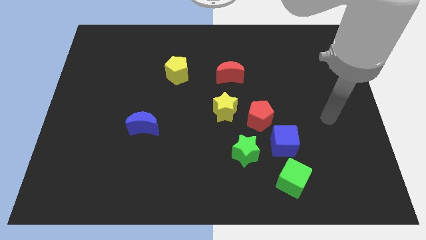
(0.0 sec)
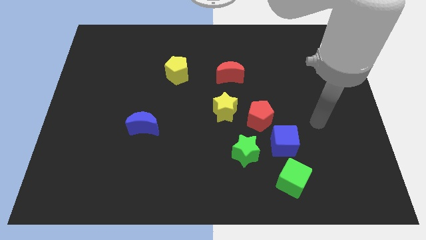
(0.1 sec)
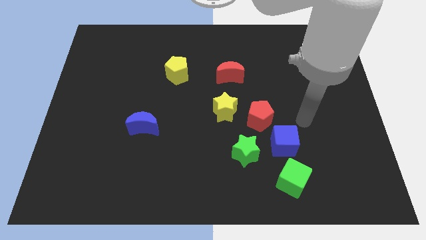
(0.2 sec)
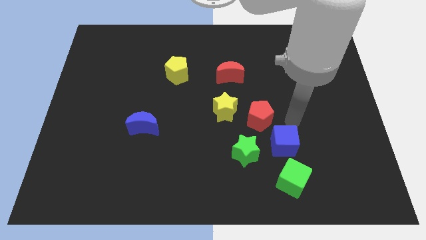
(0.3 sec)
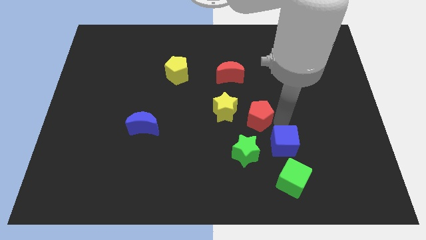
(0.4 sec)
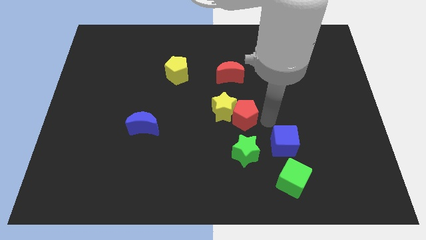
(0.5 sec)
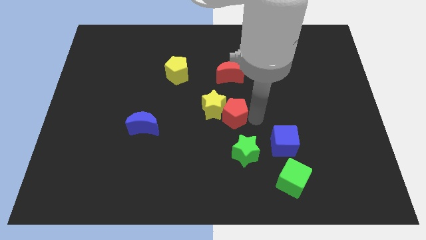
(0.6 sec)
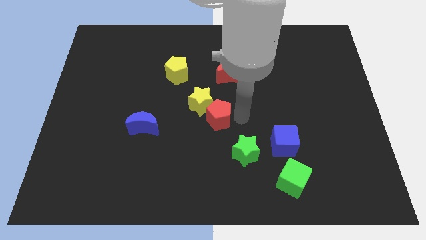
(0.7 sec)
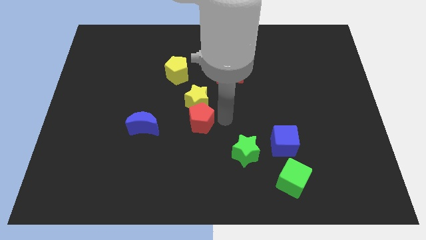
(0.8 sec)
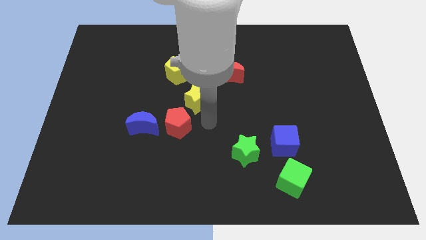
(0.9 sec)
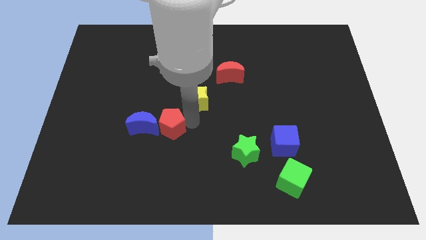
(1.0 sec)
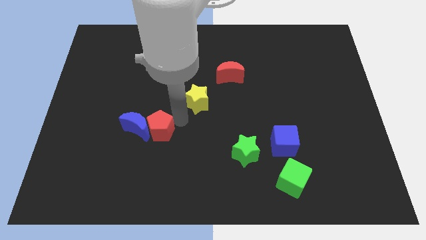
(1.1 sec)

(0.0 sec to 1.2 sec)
separate the yellow star from the red pentagon

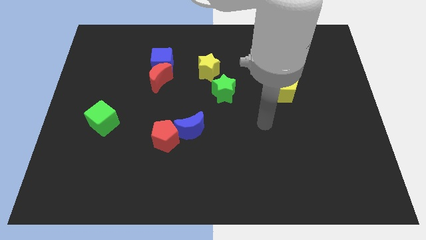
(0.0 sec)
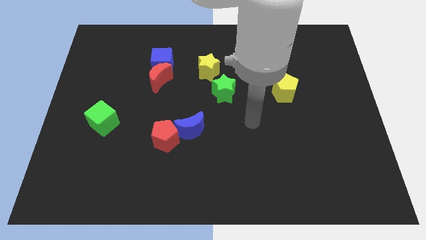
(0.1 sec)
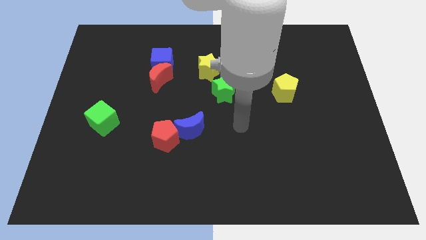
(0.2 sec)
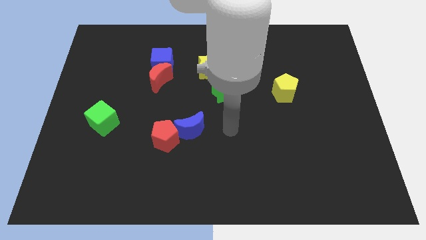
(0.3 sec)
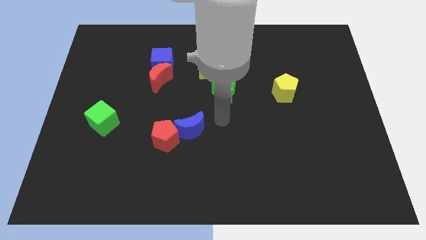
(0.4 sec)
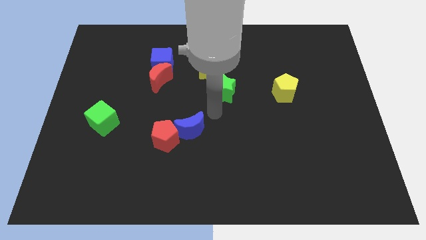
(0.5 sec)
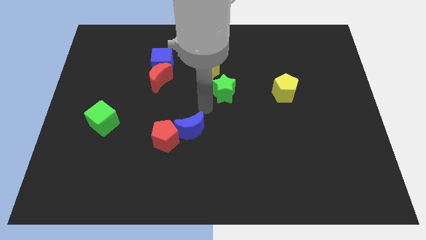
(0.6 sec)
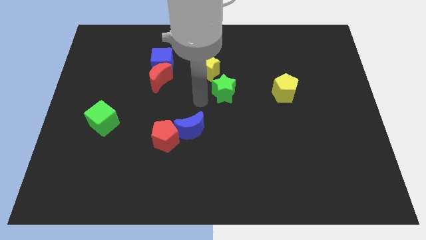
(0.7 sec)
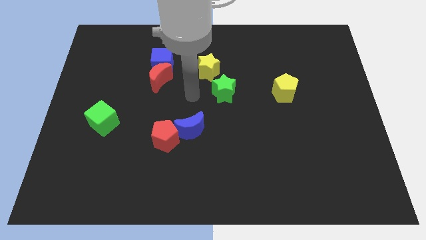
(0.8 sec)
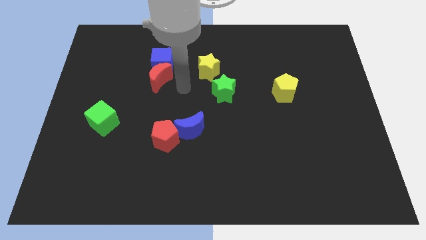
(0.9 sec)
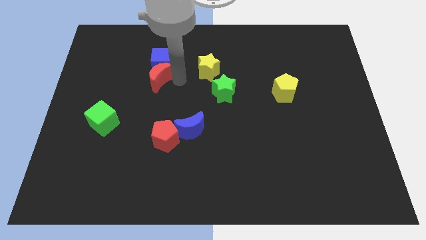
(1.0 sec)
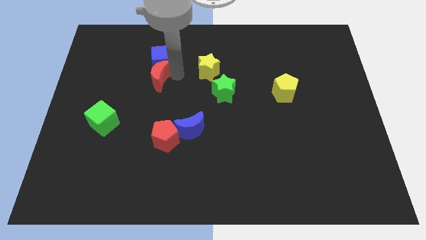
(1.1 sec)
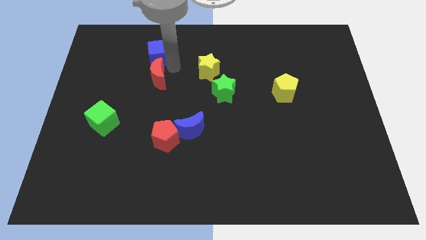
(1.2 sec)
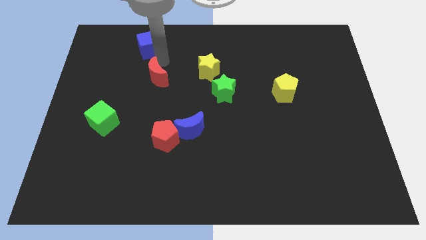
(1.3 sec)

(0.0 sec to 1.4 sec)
separate the red moon from the blue cube

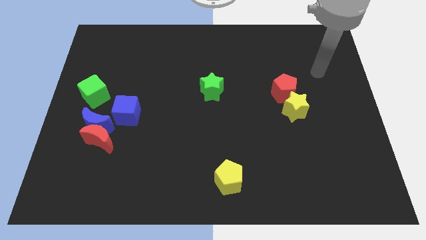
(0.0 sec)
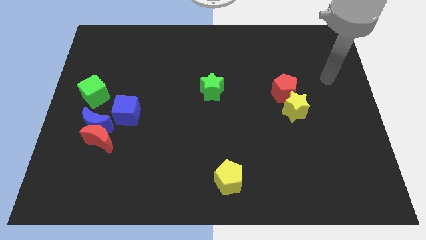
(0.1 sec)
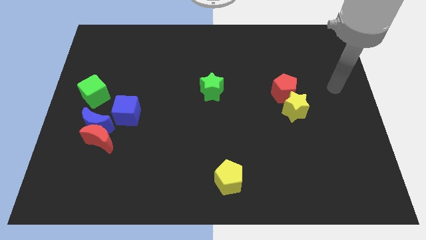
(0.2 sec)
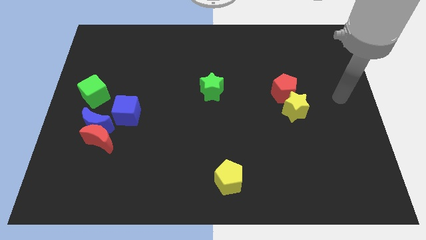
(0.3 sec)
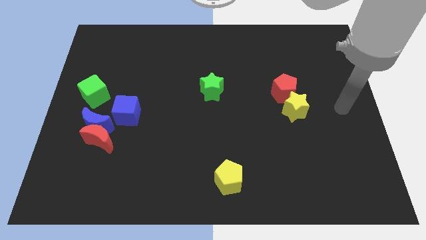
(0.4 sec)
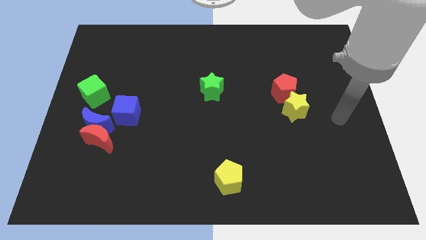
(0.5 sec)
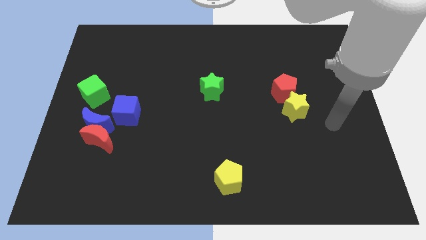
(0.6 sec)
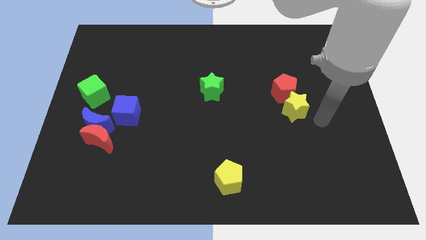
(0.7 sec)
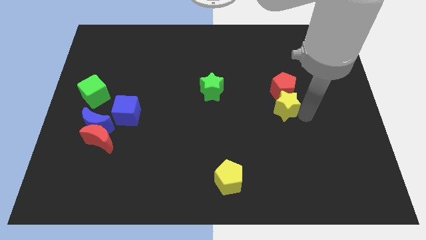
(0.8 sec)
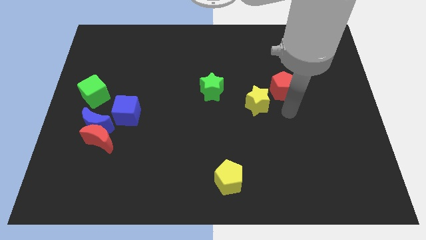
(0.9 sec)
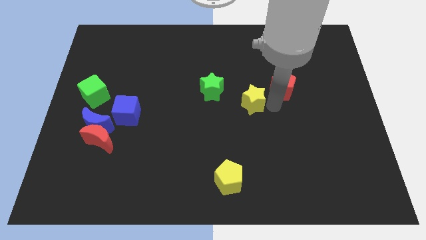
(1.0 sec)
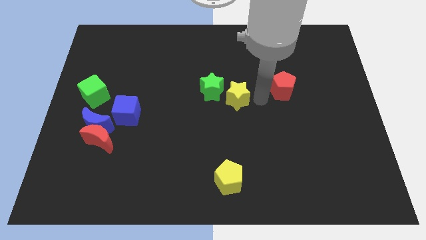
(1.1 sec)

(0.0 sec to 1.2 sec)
move the red pentagon away from the yellow star

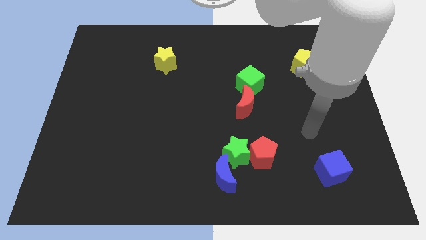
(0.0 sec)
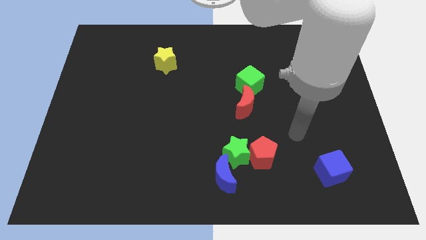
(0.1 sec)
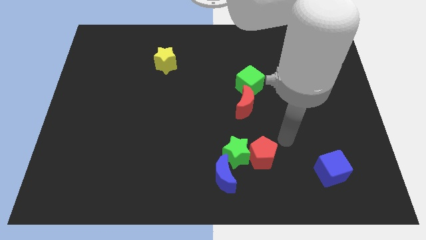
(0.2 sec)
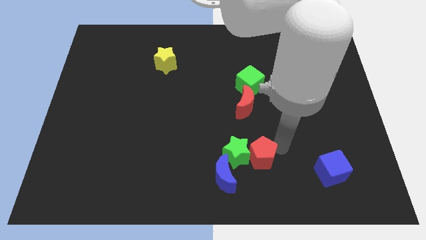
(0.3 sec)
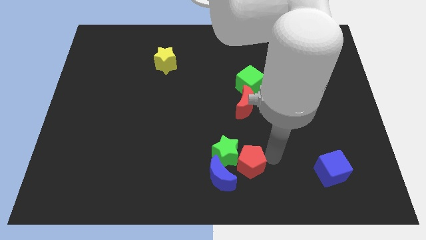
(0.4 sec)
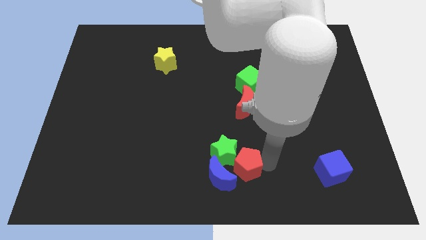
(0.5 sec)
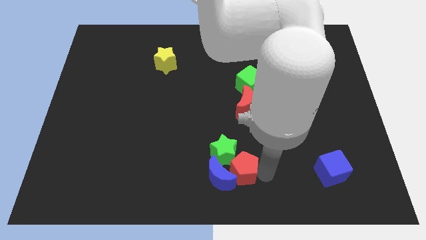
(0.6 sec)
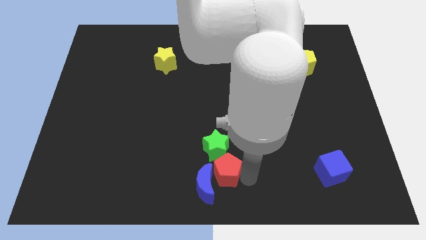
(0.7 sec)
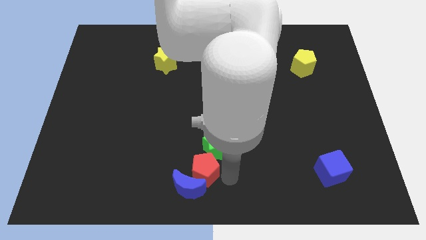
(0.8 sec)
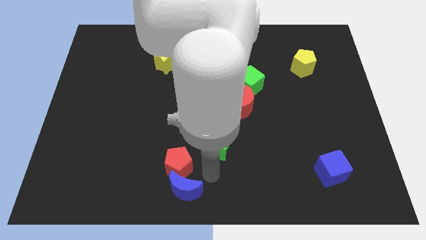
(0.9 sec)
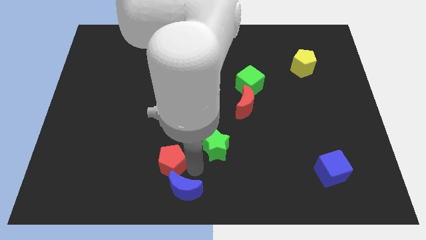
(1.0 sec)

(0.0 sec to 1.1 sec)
pull the green star apart from the red pentagon and blue moon

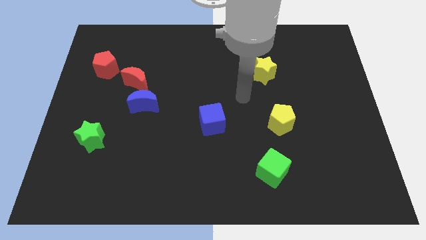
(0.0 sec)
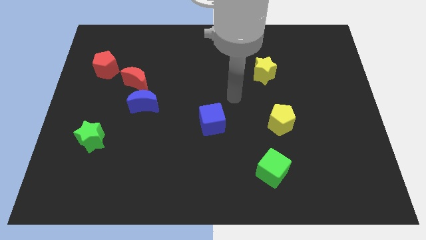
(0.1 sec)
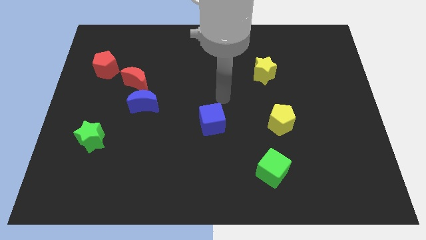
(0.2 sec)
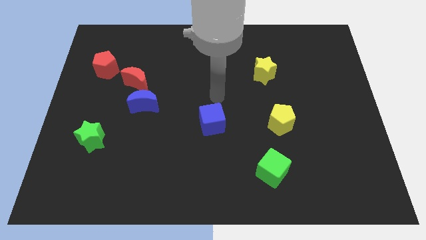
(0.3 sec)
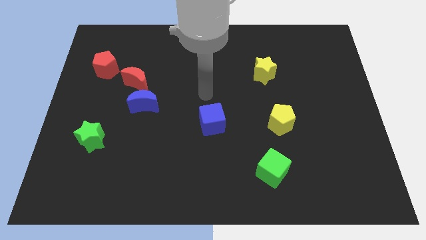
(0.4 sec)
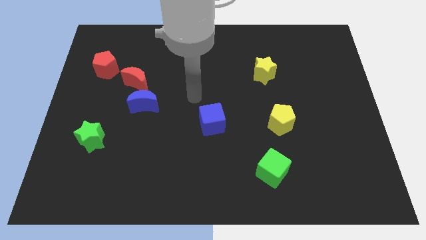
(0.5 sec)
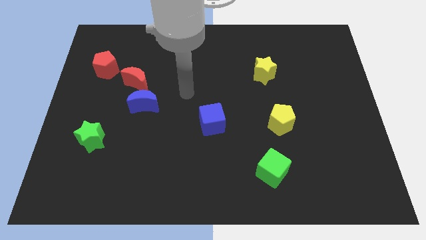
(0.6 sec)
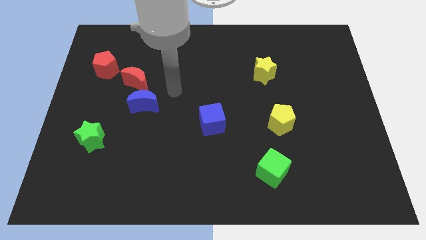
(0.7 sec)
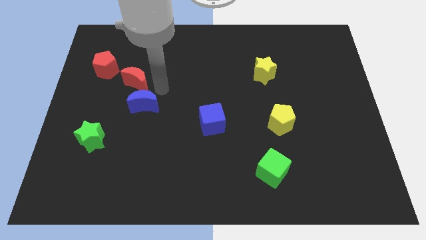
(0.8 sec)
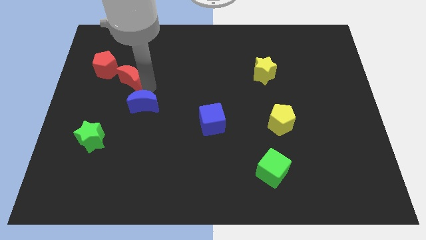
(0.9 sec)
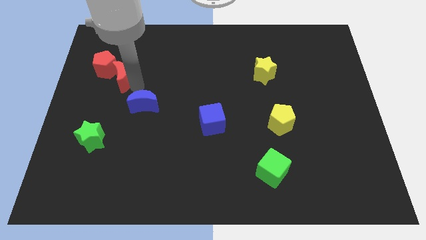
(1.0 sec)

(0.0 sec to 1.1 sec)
separate the blue moon from the red moon

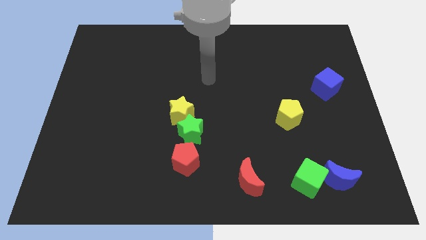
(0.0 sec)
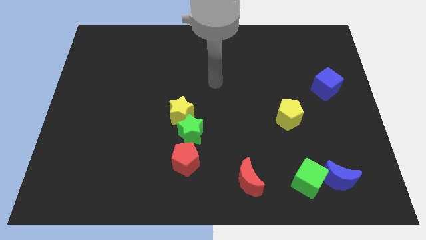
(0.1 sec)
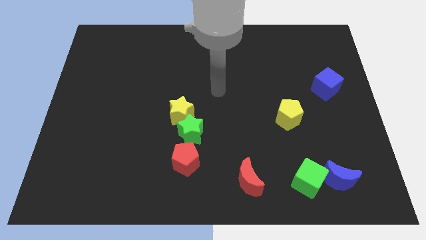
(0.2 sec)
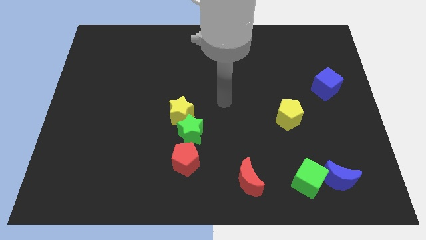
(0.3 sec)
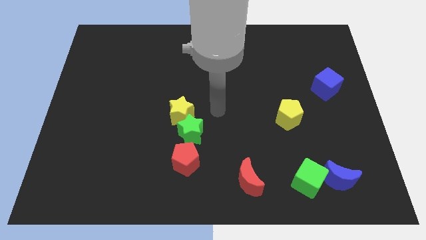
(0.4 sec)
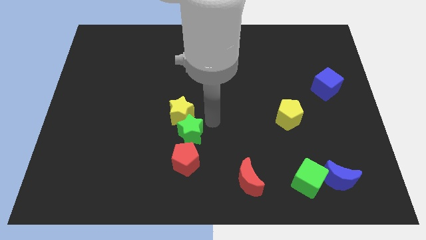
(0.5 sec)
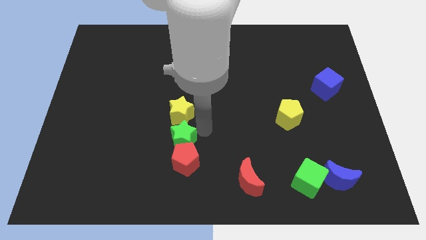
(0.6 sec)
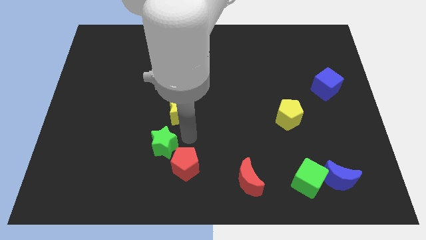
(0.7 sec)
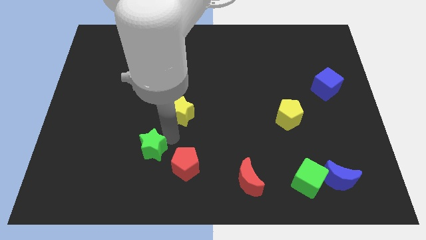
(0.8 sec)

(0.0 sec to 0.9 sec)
pull the yellow star apart from the green star

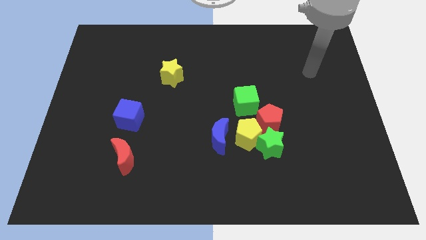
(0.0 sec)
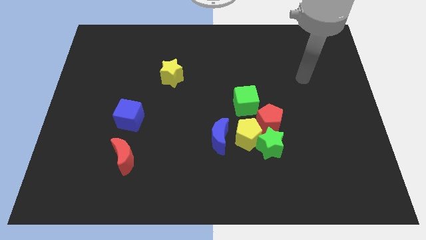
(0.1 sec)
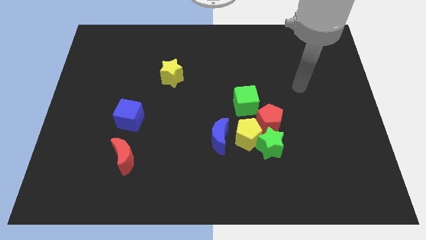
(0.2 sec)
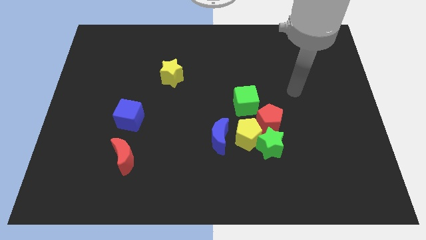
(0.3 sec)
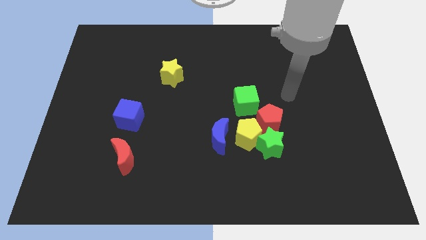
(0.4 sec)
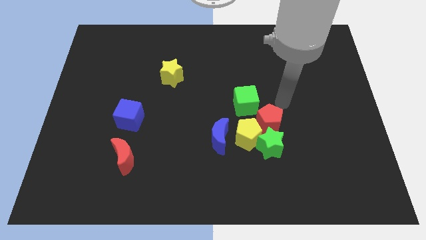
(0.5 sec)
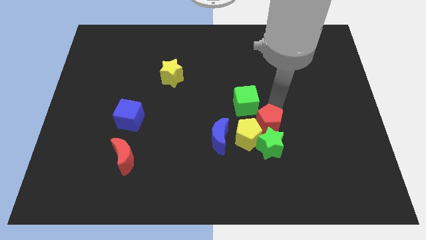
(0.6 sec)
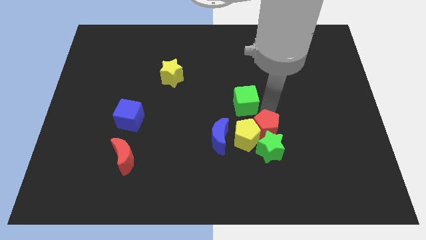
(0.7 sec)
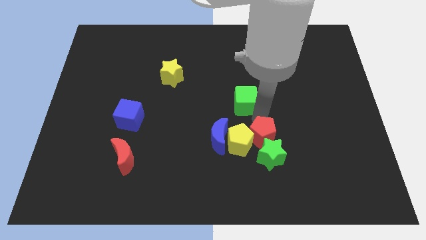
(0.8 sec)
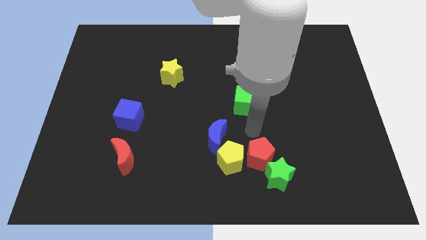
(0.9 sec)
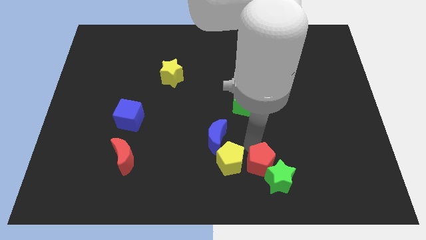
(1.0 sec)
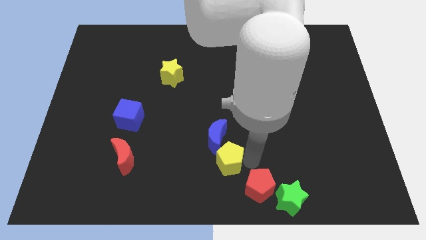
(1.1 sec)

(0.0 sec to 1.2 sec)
pull the green star apart from the yellow pentagon and red pentagon

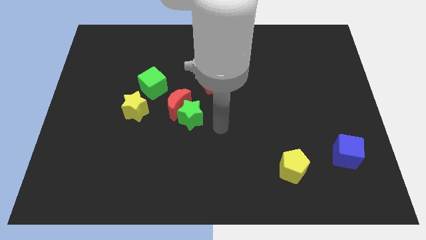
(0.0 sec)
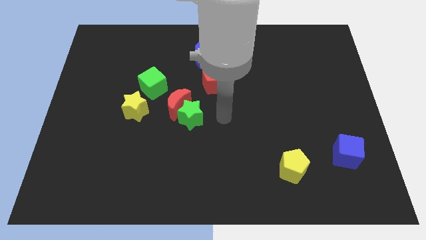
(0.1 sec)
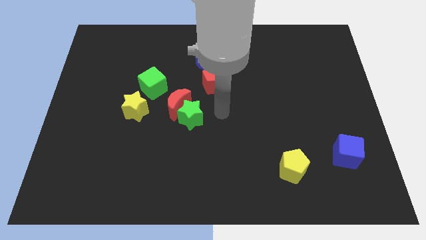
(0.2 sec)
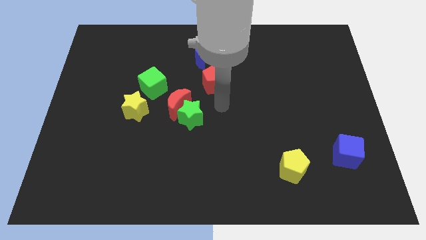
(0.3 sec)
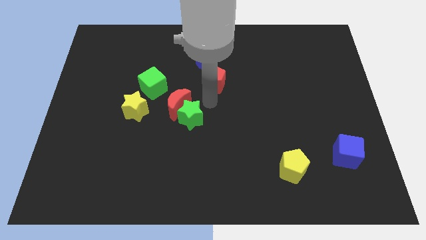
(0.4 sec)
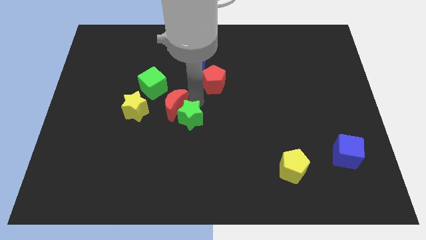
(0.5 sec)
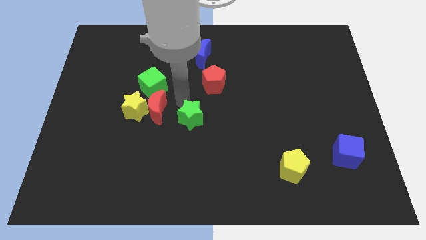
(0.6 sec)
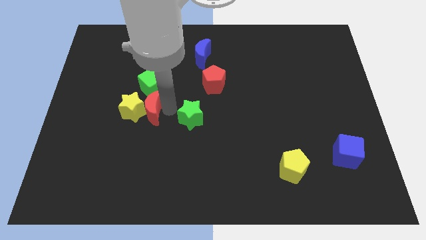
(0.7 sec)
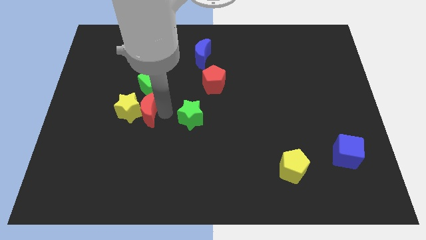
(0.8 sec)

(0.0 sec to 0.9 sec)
move the green star away from the red moon

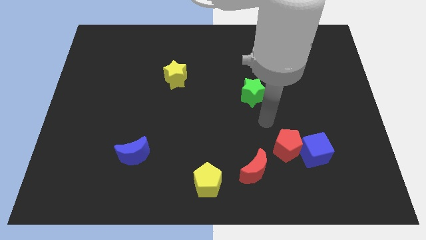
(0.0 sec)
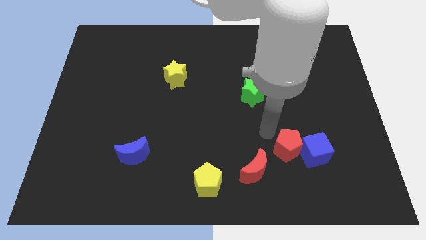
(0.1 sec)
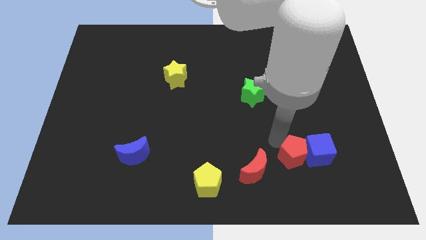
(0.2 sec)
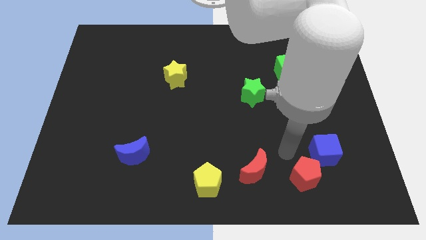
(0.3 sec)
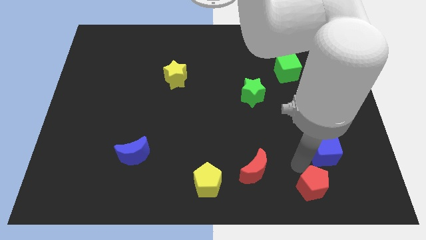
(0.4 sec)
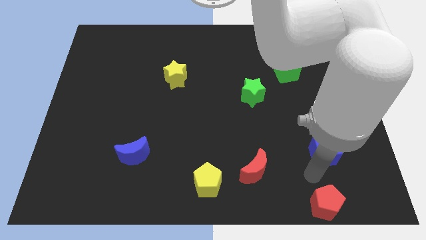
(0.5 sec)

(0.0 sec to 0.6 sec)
separate the blue cube from the red pentagon
